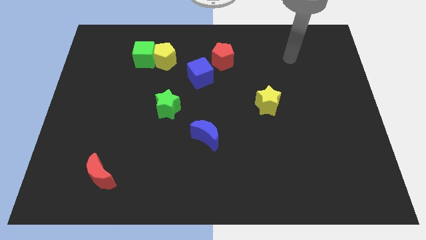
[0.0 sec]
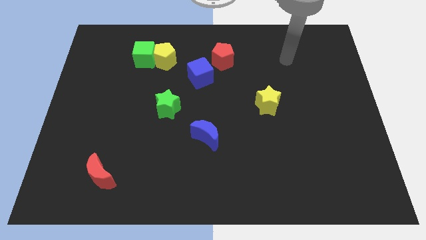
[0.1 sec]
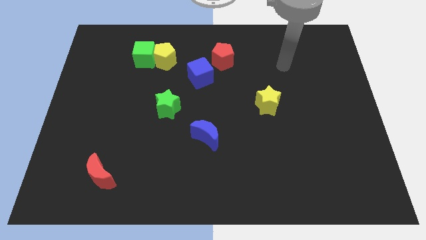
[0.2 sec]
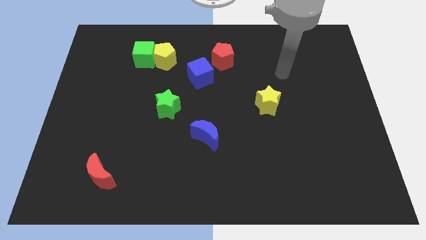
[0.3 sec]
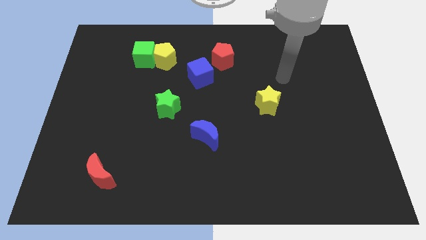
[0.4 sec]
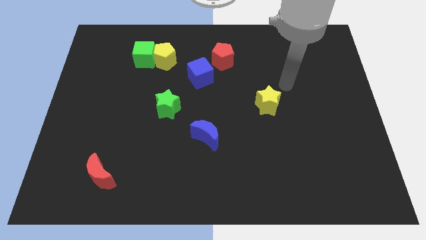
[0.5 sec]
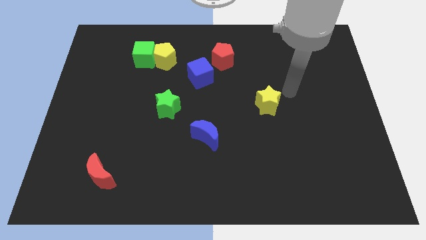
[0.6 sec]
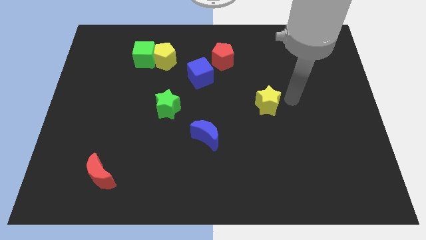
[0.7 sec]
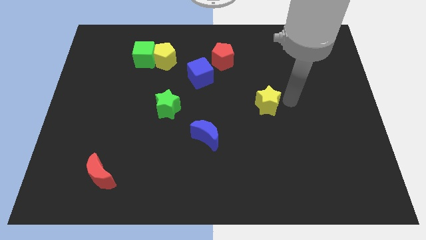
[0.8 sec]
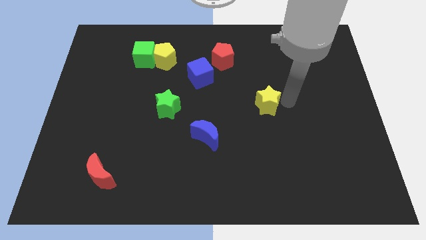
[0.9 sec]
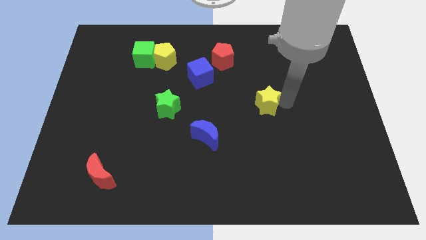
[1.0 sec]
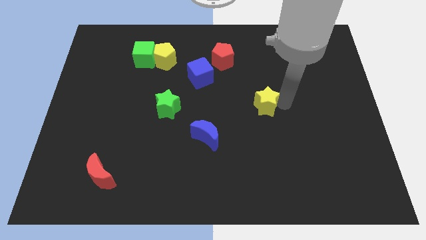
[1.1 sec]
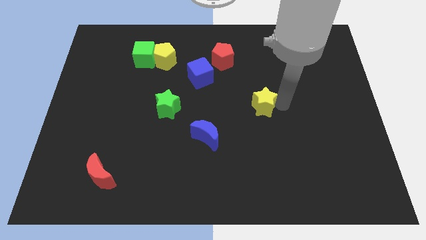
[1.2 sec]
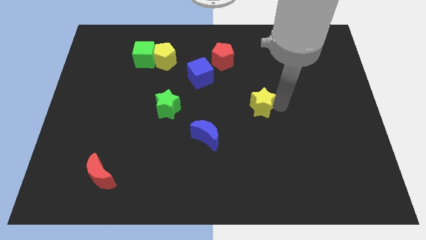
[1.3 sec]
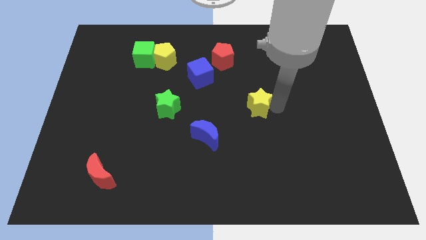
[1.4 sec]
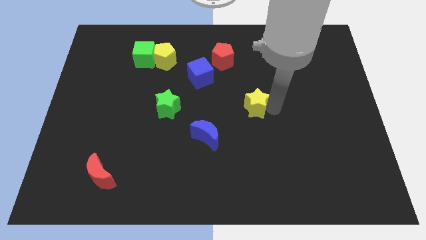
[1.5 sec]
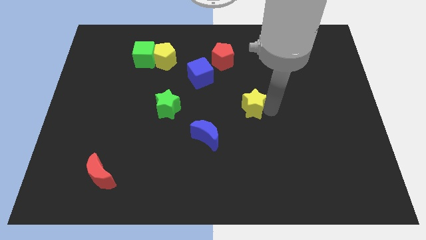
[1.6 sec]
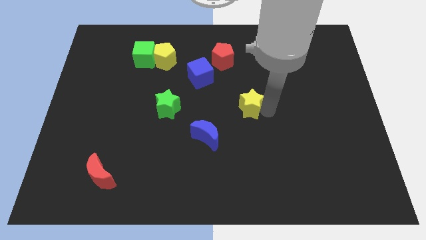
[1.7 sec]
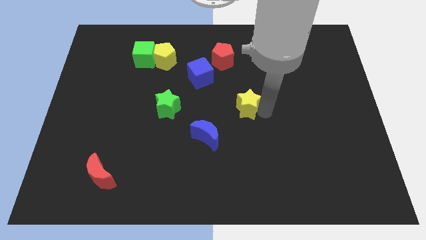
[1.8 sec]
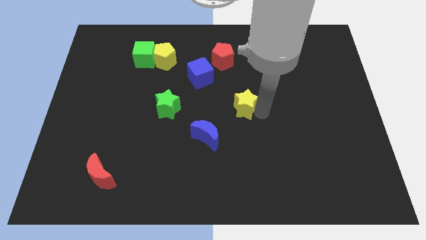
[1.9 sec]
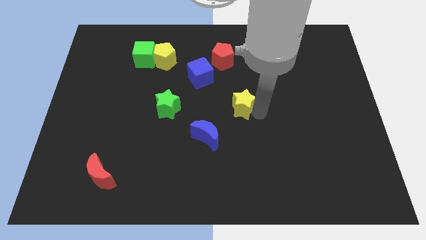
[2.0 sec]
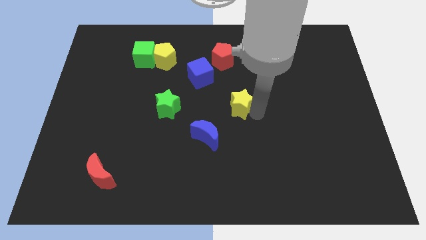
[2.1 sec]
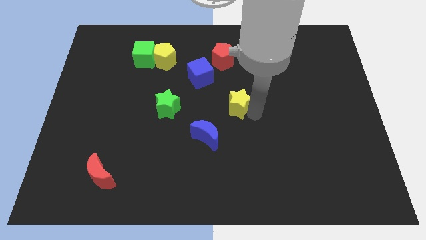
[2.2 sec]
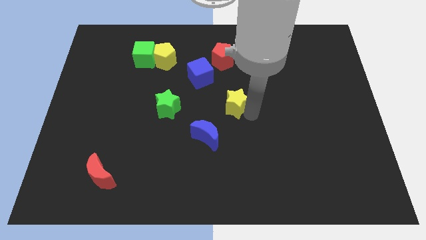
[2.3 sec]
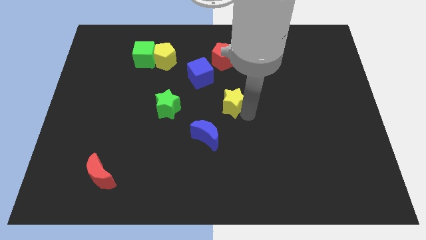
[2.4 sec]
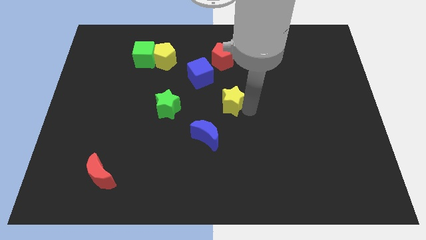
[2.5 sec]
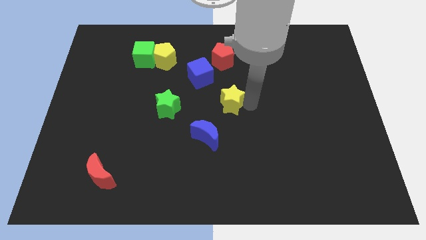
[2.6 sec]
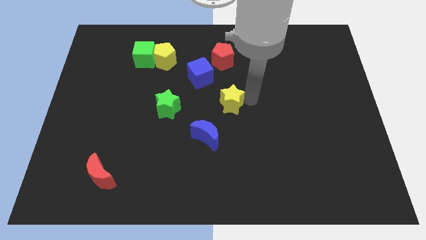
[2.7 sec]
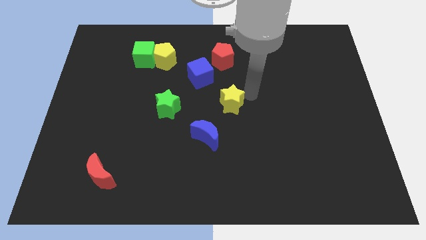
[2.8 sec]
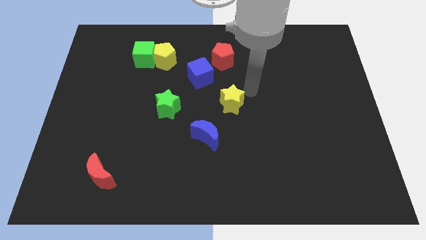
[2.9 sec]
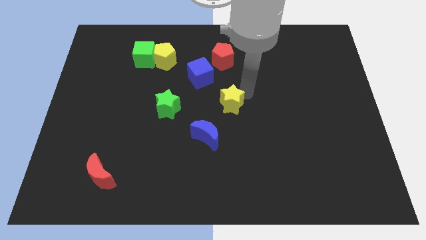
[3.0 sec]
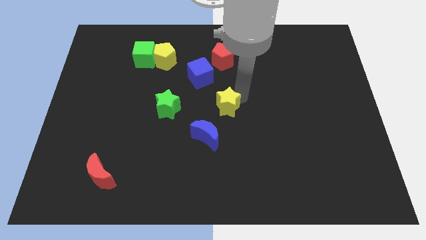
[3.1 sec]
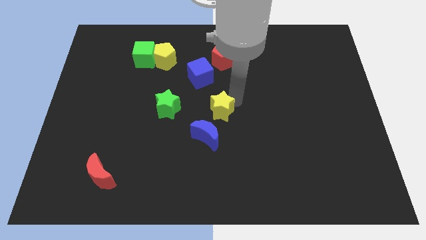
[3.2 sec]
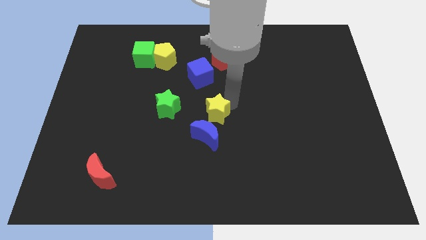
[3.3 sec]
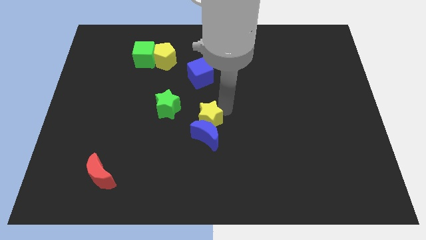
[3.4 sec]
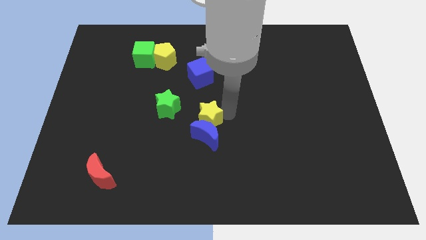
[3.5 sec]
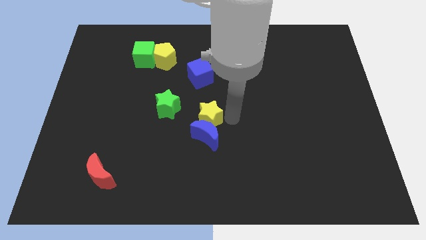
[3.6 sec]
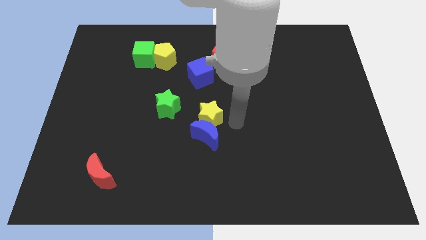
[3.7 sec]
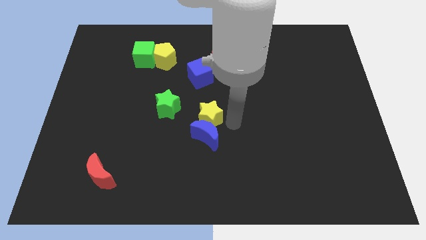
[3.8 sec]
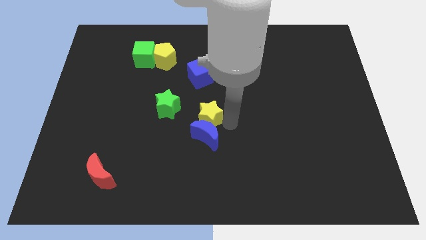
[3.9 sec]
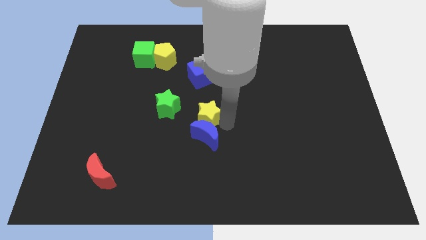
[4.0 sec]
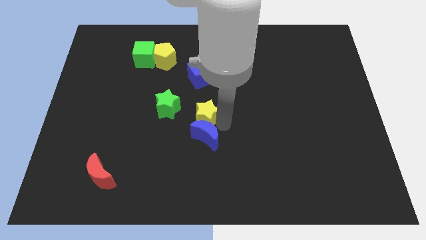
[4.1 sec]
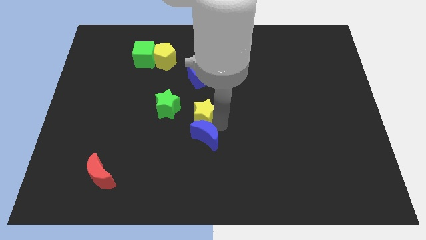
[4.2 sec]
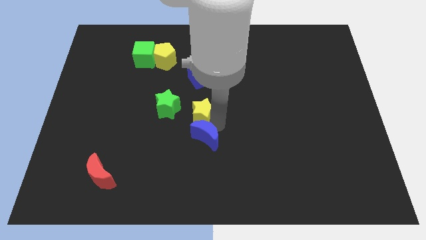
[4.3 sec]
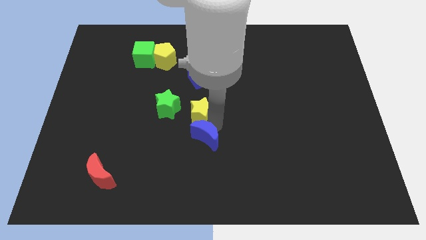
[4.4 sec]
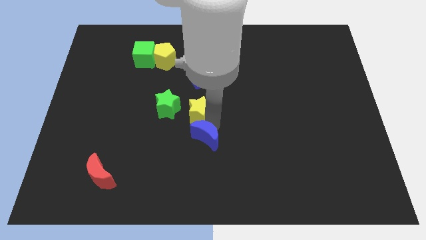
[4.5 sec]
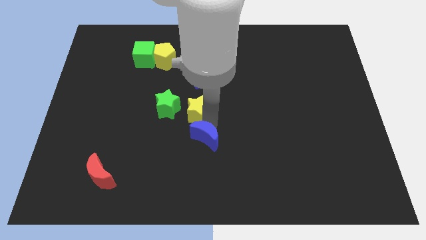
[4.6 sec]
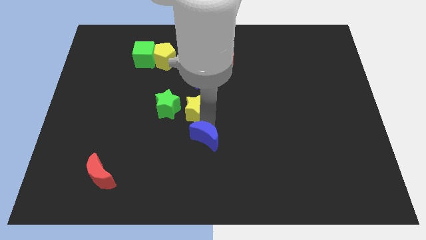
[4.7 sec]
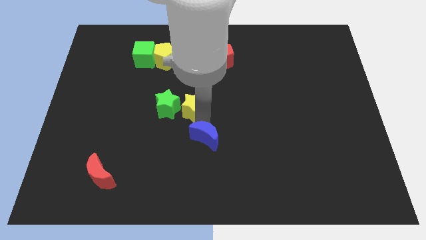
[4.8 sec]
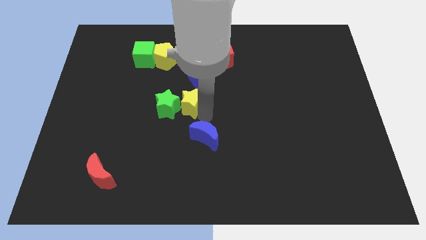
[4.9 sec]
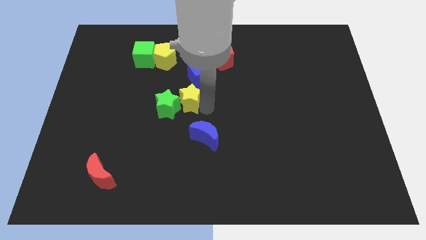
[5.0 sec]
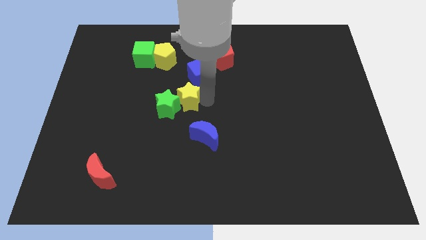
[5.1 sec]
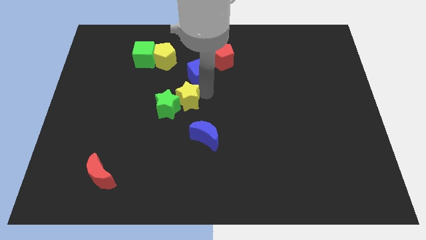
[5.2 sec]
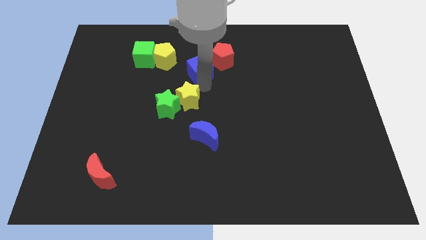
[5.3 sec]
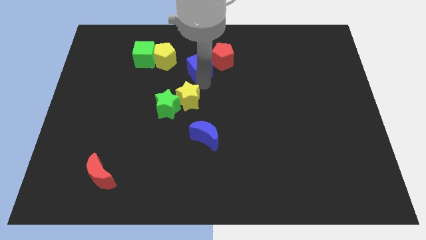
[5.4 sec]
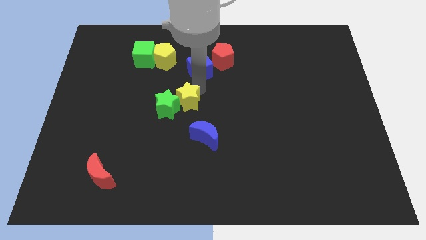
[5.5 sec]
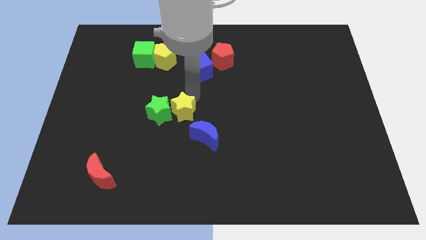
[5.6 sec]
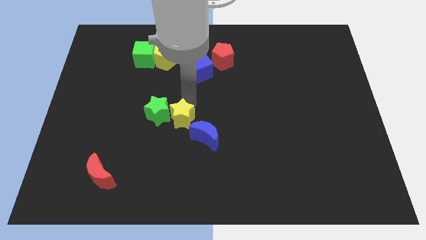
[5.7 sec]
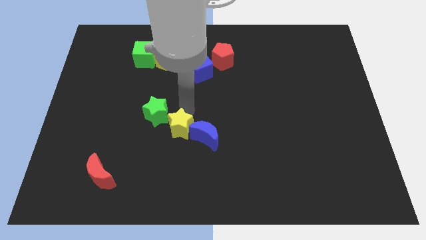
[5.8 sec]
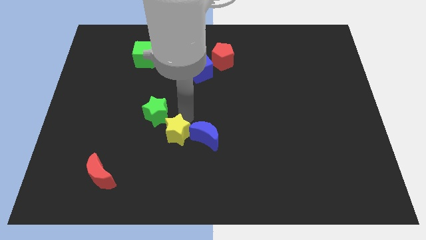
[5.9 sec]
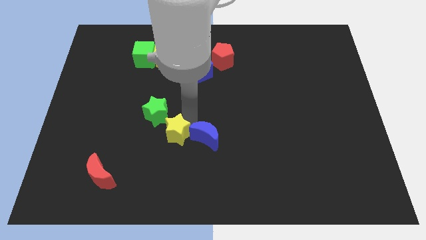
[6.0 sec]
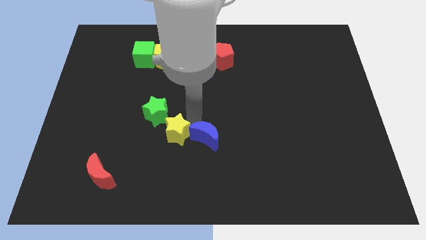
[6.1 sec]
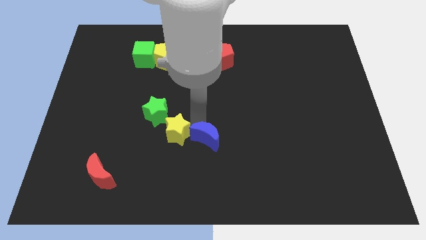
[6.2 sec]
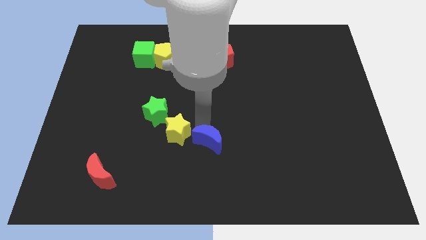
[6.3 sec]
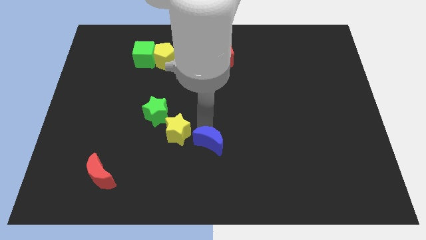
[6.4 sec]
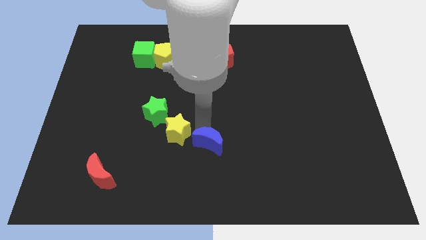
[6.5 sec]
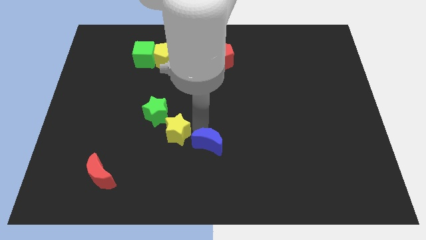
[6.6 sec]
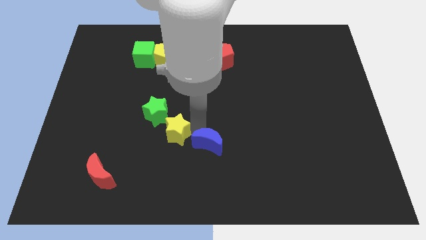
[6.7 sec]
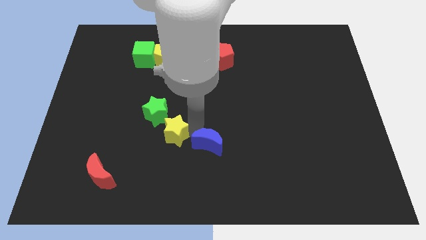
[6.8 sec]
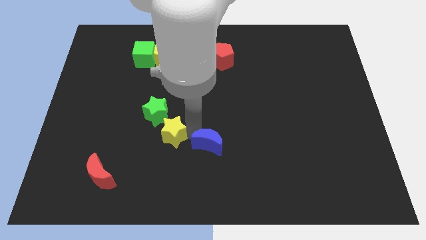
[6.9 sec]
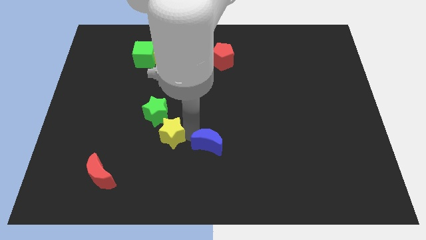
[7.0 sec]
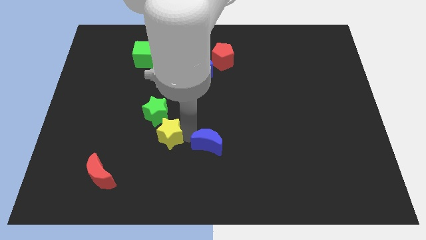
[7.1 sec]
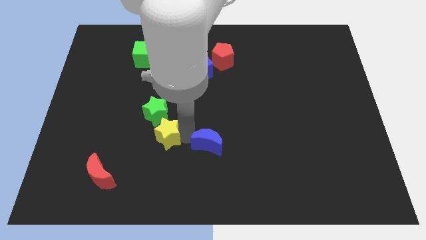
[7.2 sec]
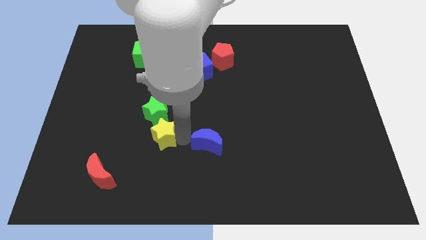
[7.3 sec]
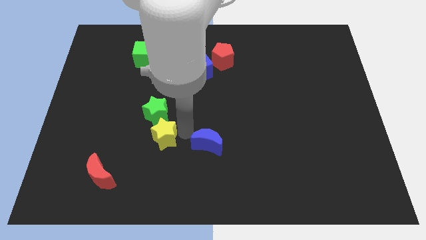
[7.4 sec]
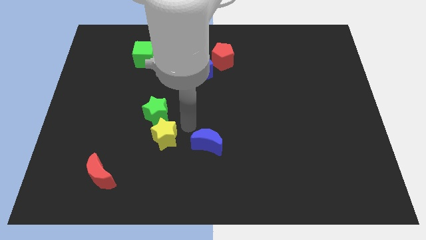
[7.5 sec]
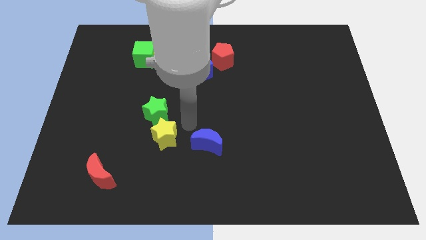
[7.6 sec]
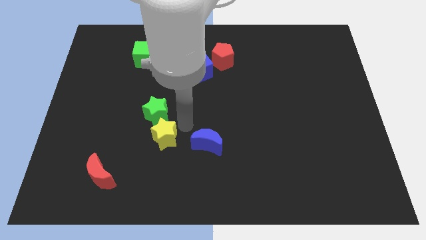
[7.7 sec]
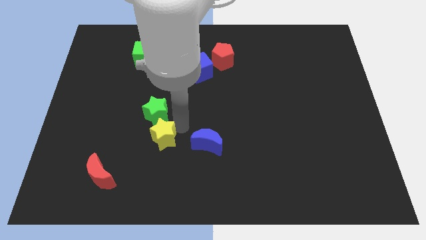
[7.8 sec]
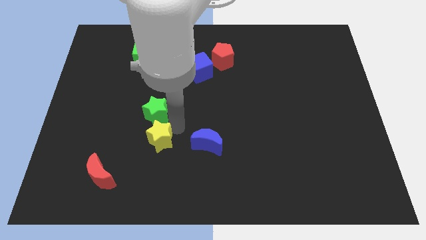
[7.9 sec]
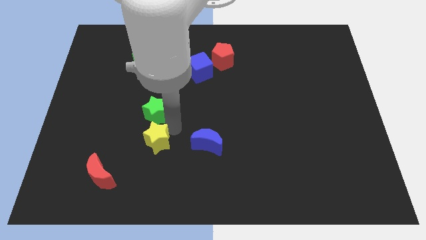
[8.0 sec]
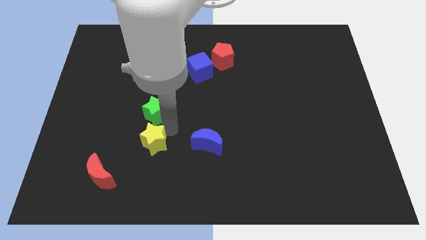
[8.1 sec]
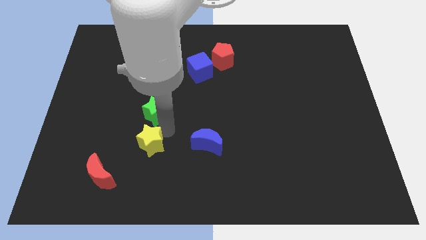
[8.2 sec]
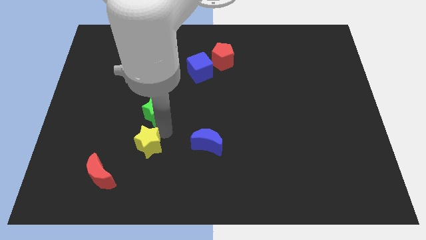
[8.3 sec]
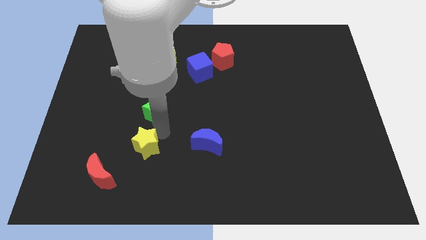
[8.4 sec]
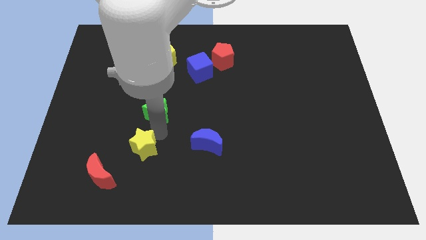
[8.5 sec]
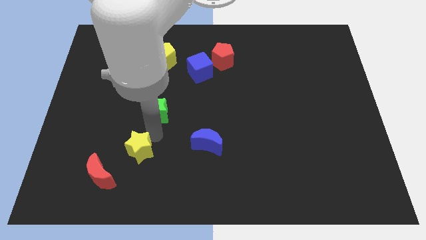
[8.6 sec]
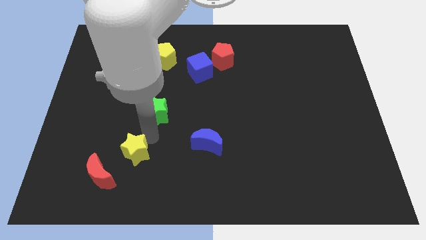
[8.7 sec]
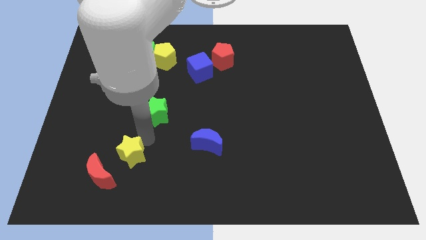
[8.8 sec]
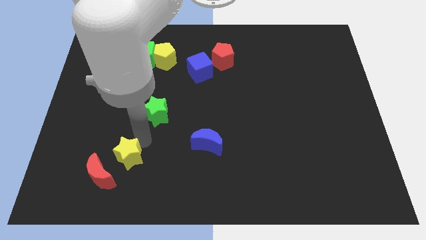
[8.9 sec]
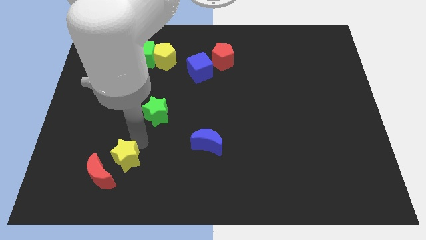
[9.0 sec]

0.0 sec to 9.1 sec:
push the yellow star to the red moon
